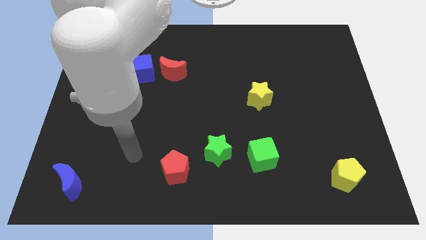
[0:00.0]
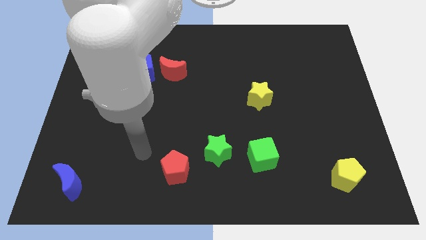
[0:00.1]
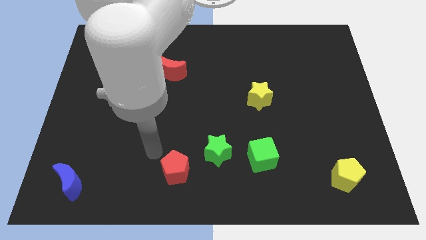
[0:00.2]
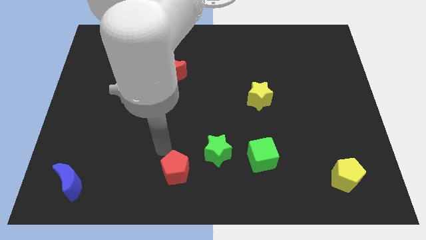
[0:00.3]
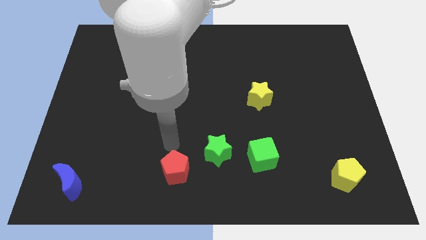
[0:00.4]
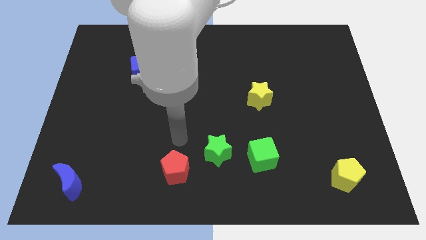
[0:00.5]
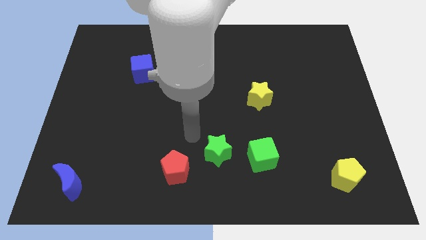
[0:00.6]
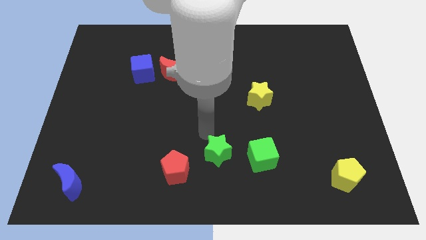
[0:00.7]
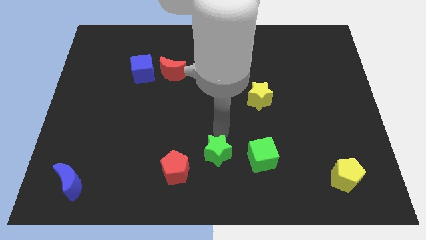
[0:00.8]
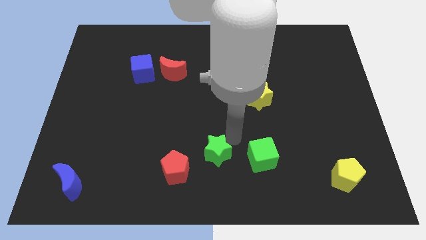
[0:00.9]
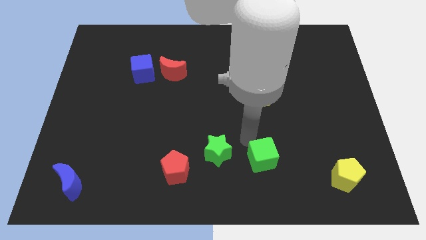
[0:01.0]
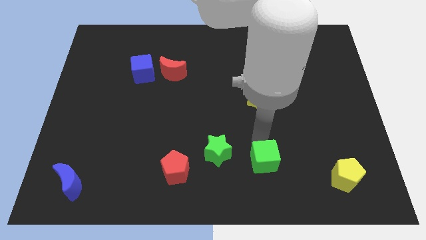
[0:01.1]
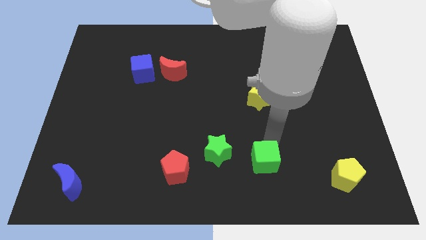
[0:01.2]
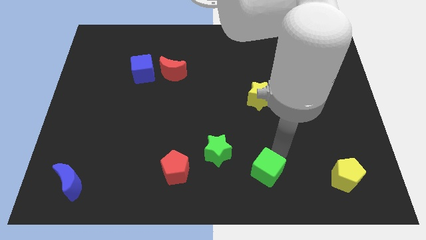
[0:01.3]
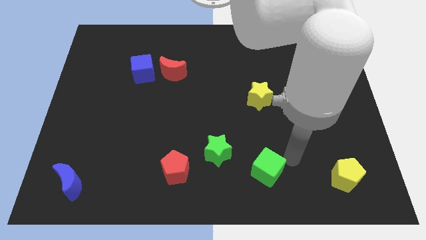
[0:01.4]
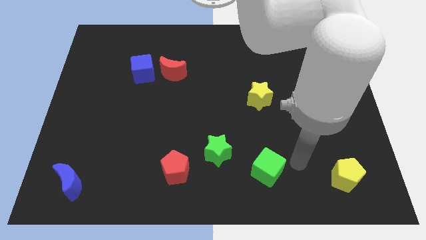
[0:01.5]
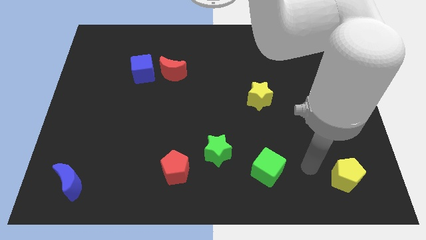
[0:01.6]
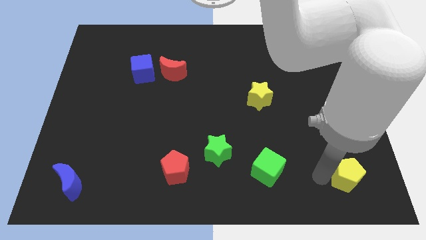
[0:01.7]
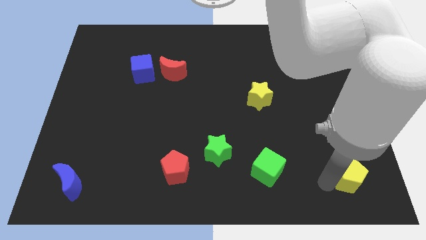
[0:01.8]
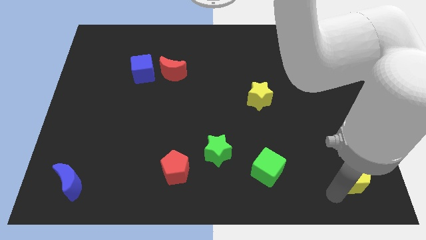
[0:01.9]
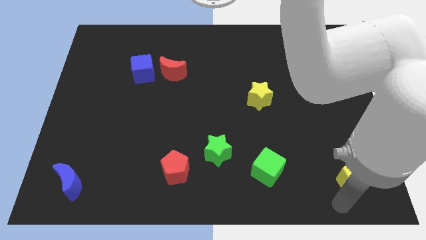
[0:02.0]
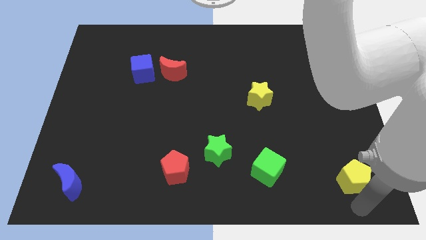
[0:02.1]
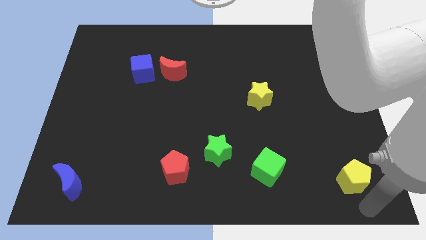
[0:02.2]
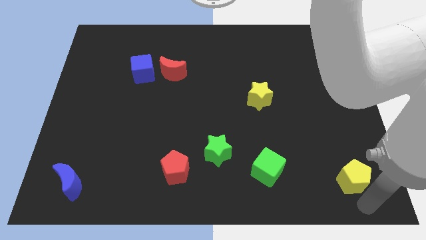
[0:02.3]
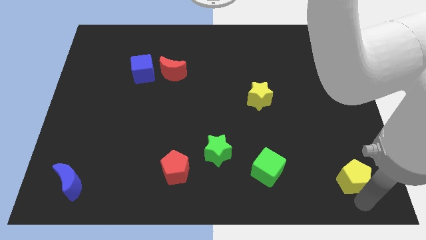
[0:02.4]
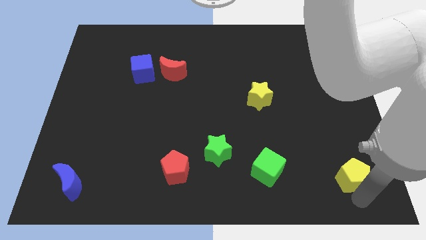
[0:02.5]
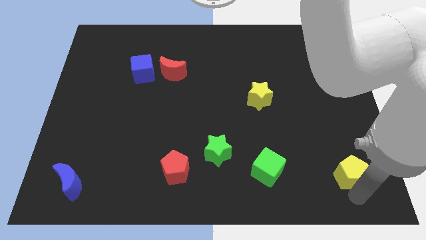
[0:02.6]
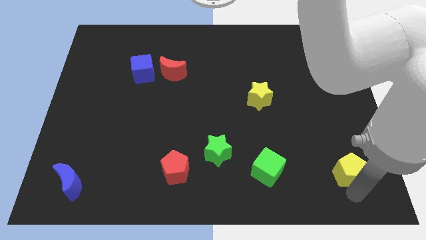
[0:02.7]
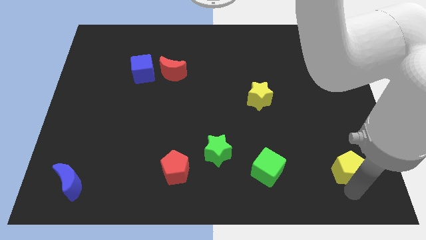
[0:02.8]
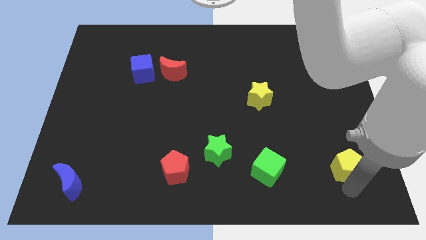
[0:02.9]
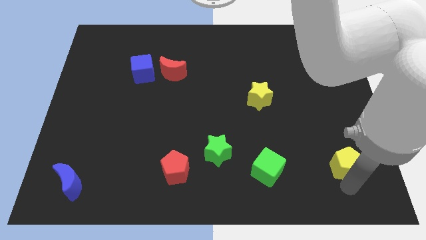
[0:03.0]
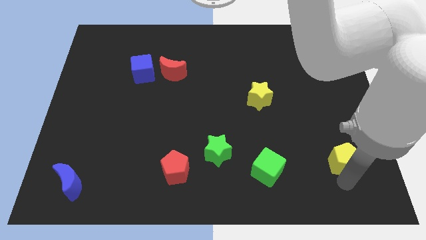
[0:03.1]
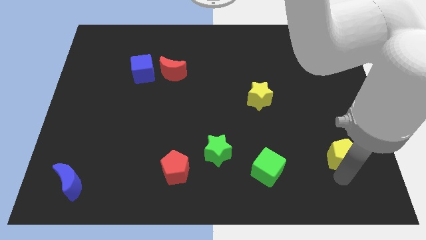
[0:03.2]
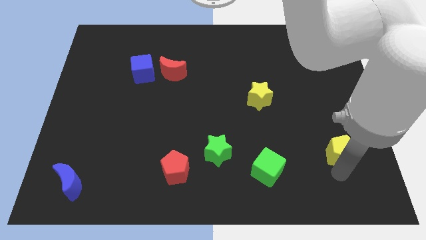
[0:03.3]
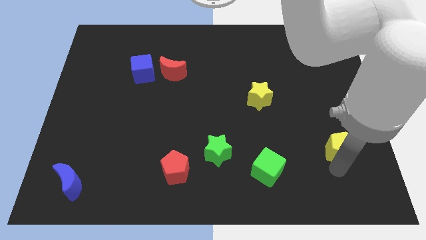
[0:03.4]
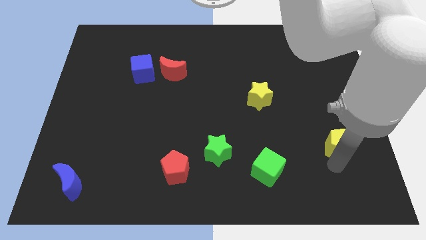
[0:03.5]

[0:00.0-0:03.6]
slightly move the yellow pentagon upwards

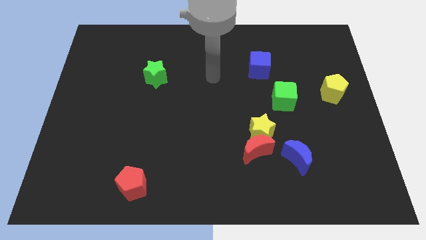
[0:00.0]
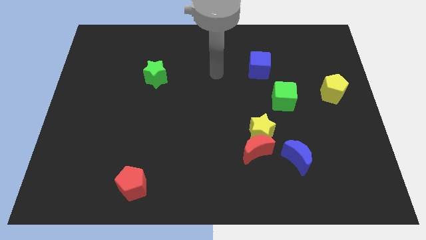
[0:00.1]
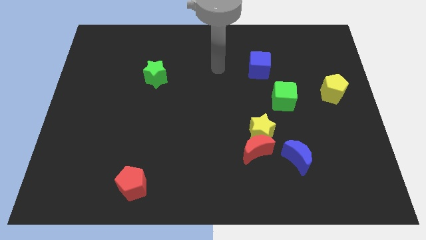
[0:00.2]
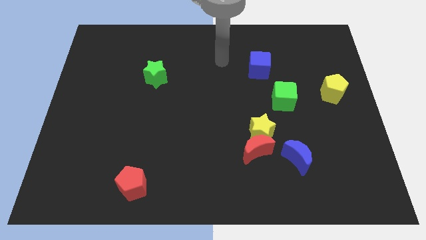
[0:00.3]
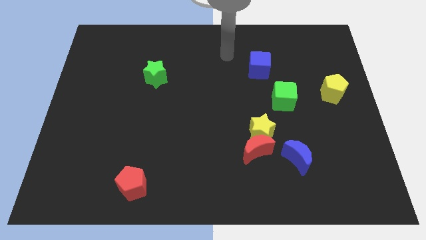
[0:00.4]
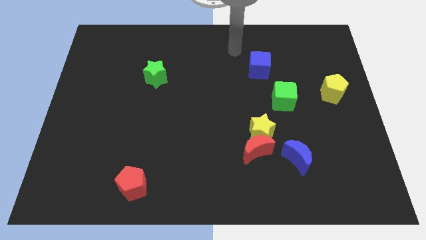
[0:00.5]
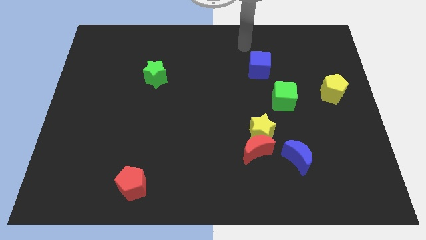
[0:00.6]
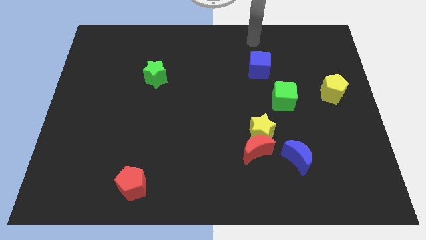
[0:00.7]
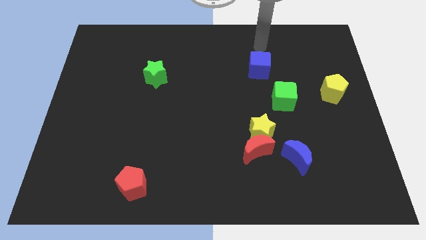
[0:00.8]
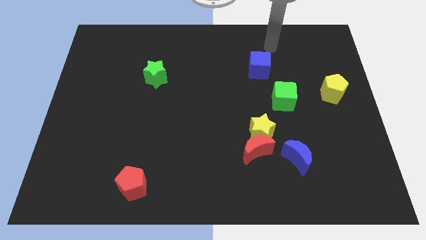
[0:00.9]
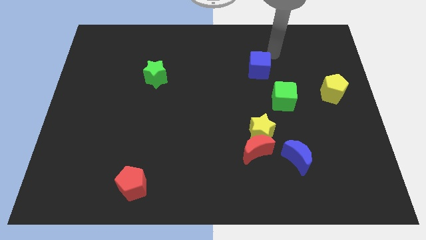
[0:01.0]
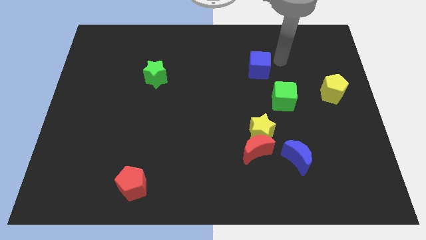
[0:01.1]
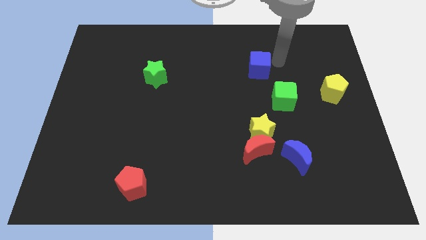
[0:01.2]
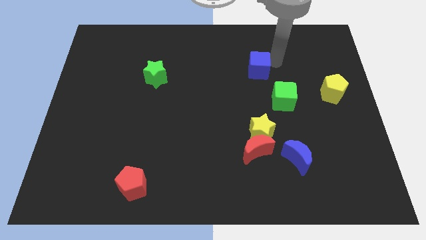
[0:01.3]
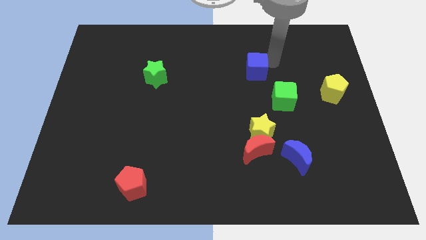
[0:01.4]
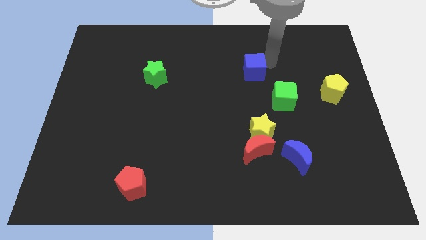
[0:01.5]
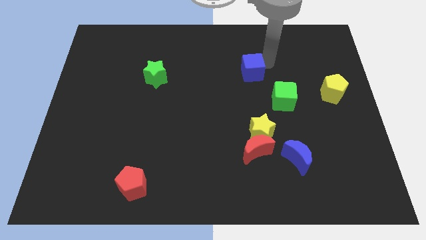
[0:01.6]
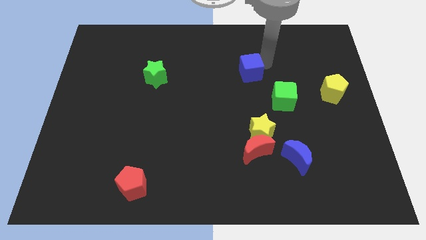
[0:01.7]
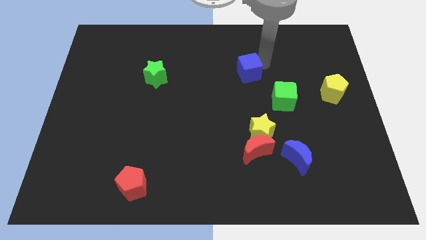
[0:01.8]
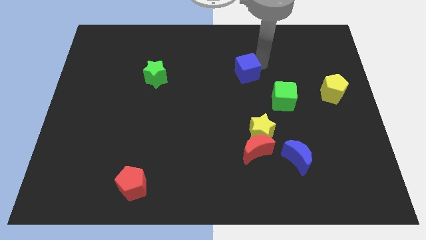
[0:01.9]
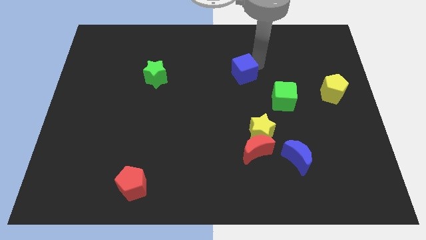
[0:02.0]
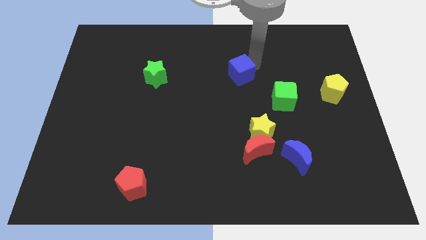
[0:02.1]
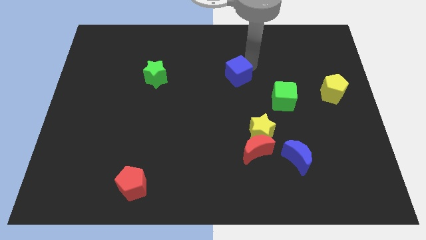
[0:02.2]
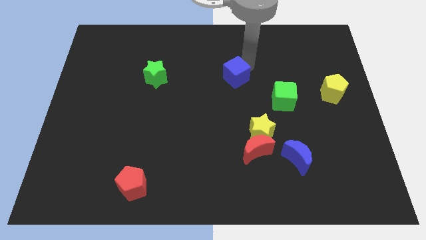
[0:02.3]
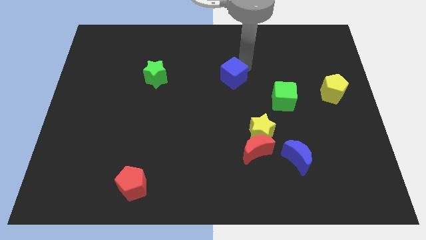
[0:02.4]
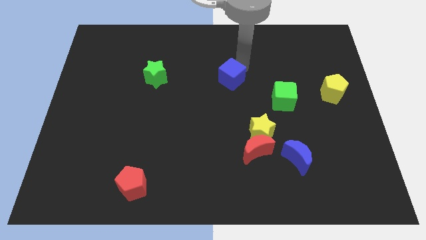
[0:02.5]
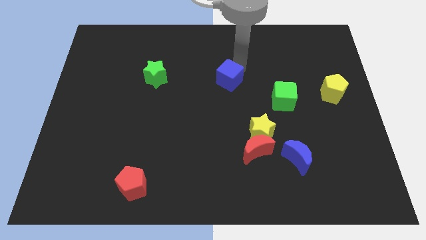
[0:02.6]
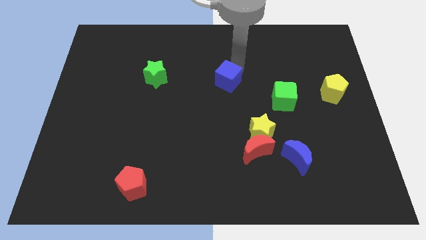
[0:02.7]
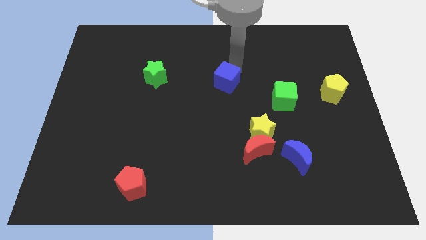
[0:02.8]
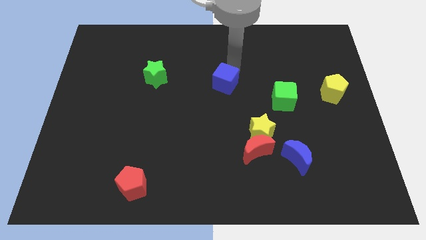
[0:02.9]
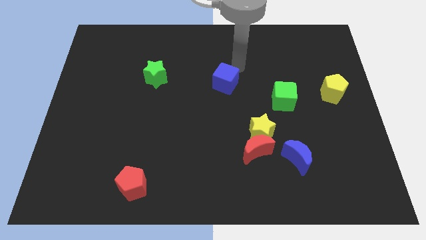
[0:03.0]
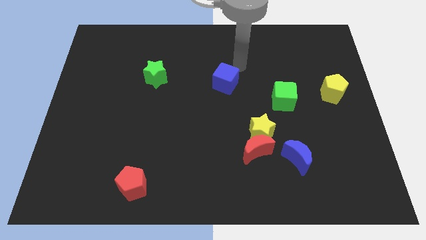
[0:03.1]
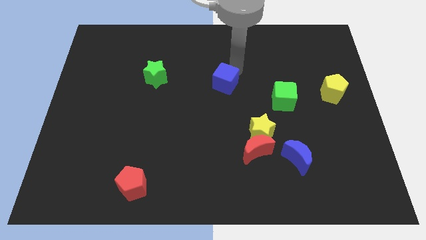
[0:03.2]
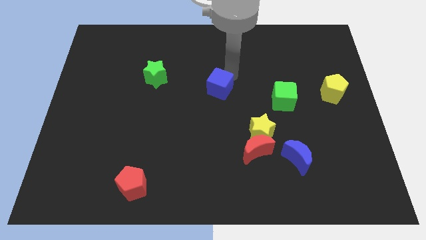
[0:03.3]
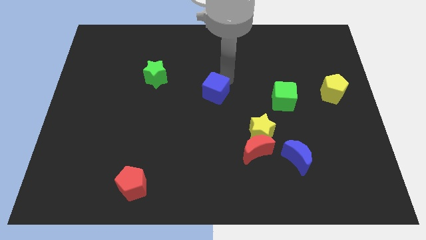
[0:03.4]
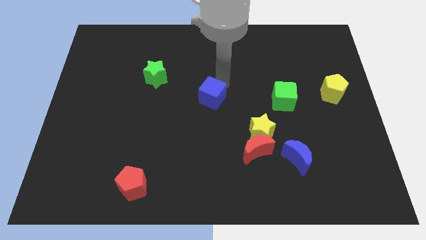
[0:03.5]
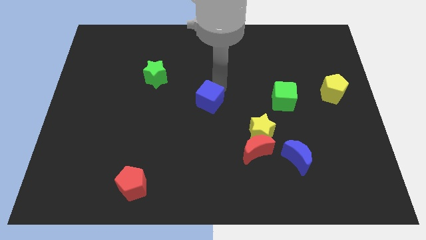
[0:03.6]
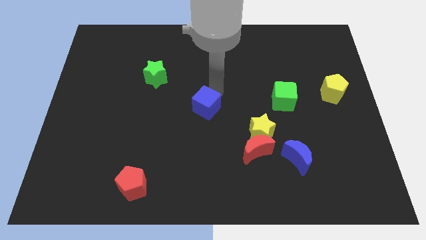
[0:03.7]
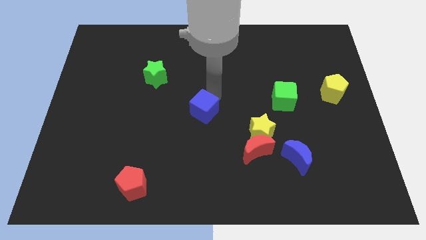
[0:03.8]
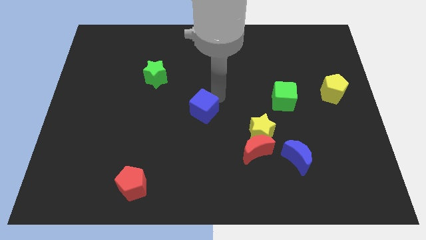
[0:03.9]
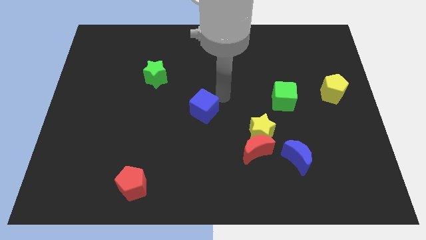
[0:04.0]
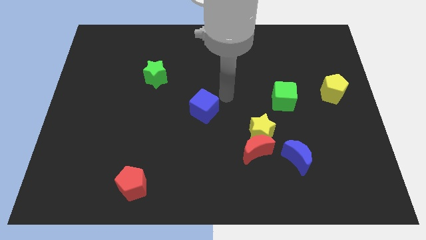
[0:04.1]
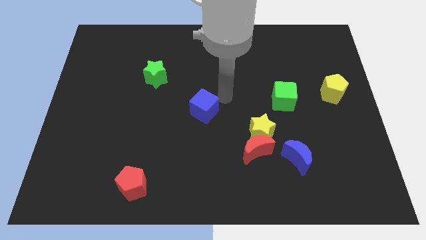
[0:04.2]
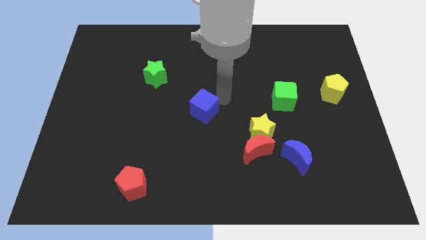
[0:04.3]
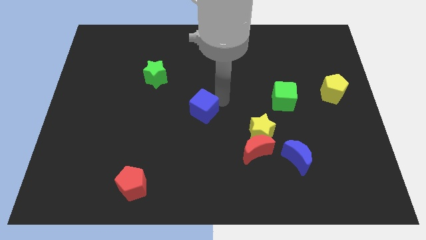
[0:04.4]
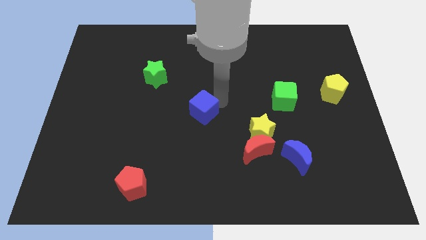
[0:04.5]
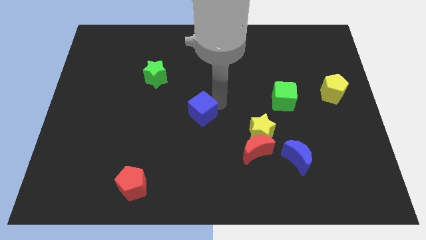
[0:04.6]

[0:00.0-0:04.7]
push the blue cube down and then to the left
